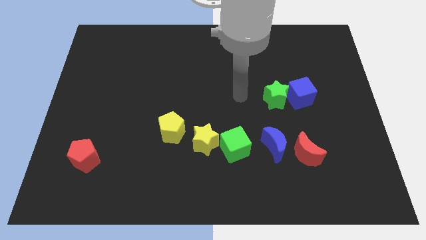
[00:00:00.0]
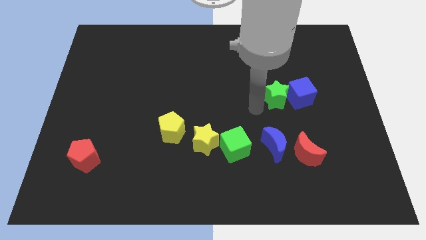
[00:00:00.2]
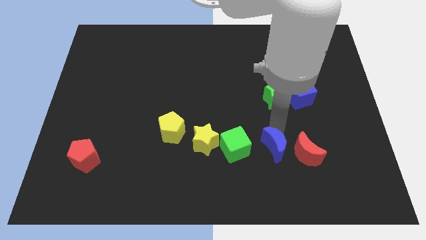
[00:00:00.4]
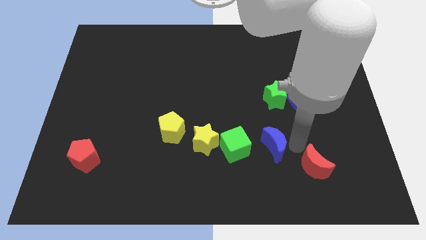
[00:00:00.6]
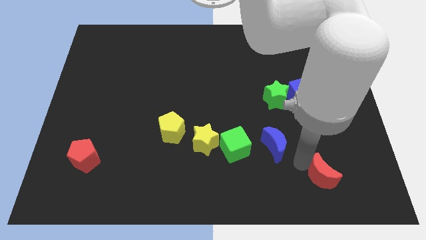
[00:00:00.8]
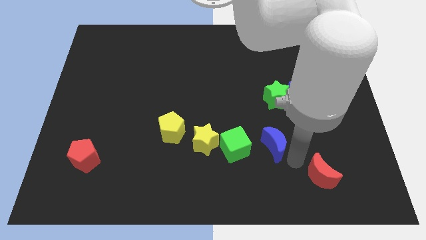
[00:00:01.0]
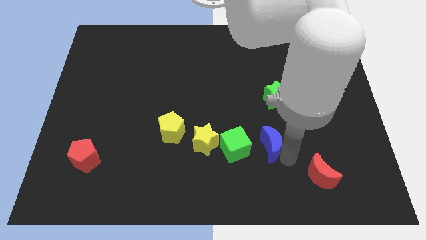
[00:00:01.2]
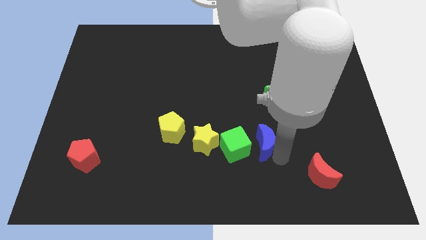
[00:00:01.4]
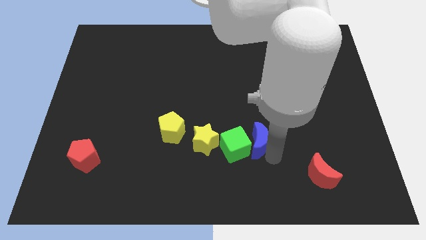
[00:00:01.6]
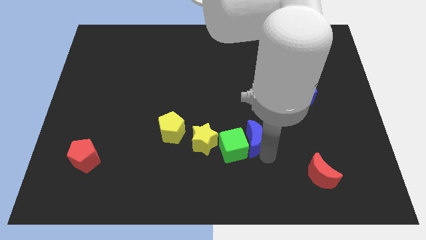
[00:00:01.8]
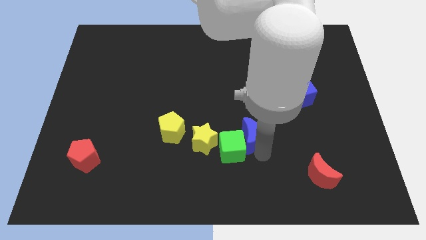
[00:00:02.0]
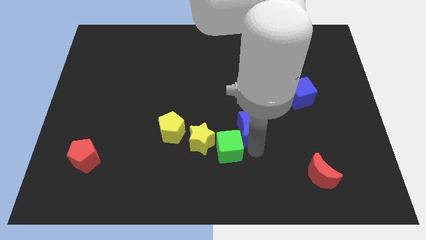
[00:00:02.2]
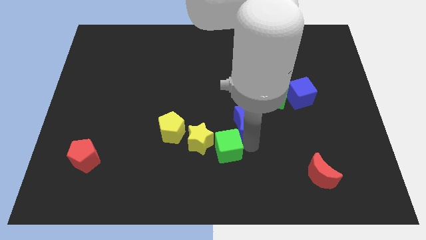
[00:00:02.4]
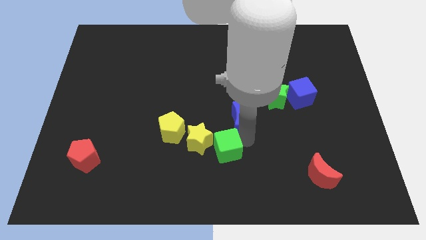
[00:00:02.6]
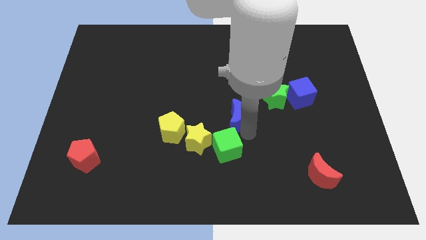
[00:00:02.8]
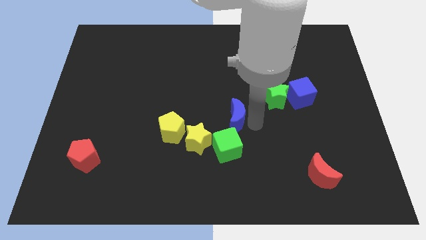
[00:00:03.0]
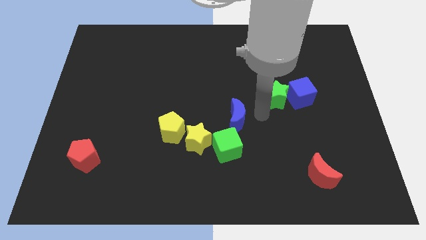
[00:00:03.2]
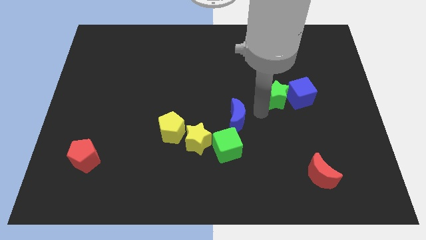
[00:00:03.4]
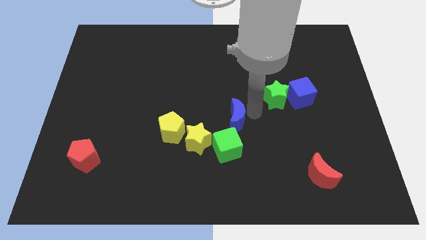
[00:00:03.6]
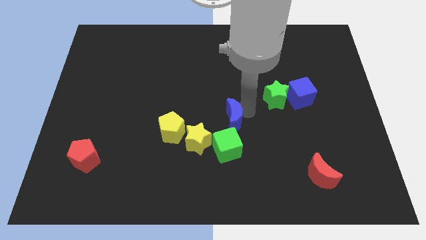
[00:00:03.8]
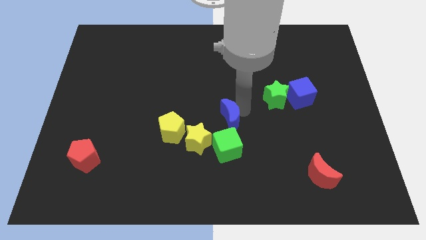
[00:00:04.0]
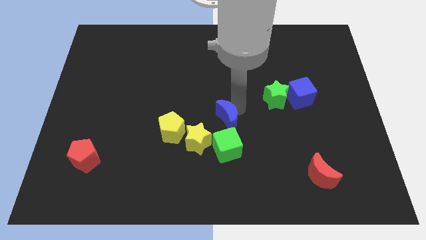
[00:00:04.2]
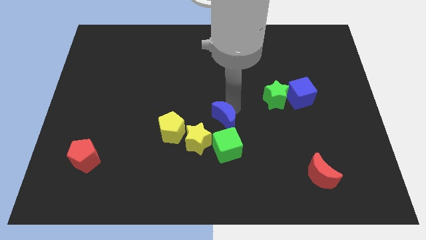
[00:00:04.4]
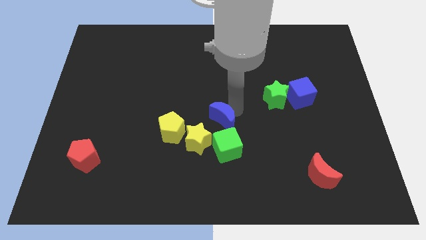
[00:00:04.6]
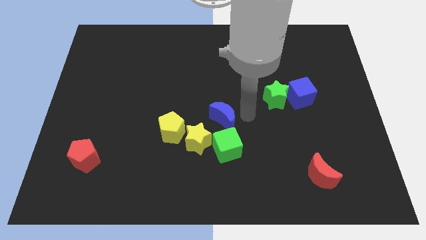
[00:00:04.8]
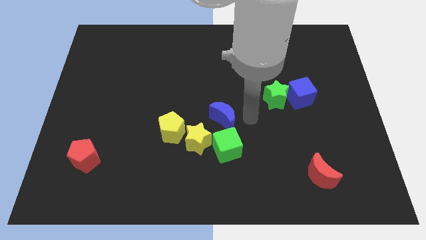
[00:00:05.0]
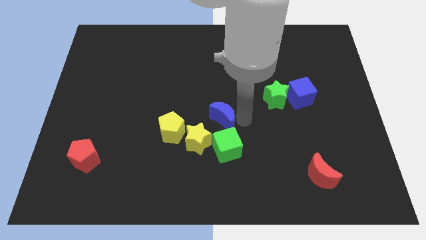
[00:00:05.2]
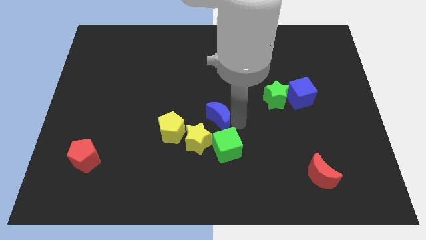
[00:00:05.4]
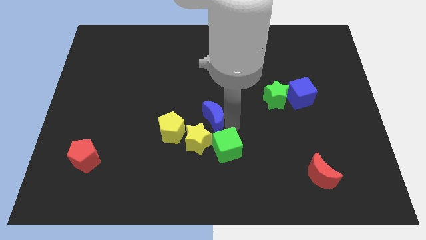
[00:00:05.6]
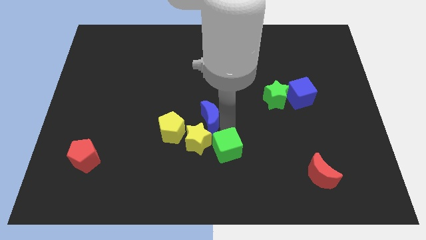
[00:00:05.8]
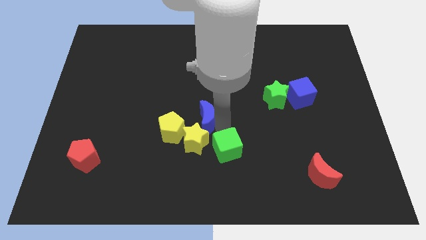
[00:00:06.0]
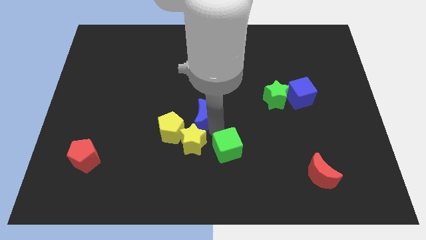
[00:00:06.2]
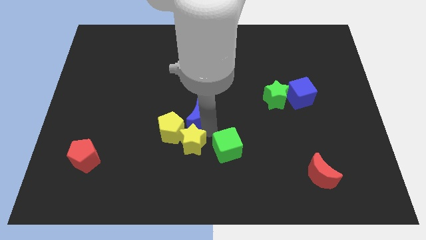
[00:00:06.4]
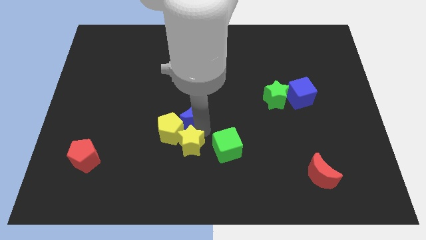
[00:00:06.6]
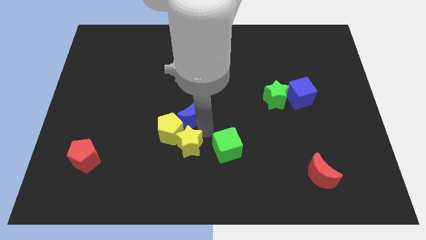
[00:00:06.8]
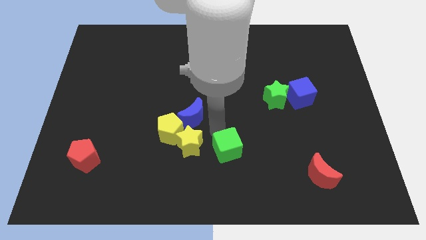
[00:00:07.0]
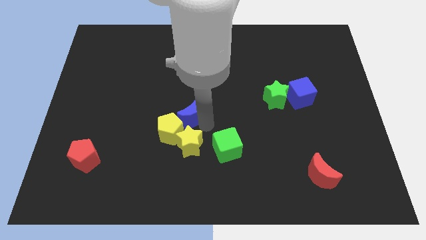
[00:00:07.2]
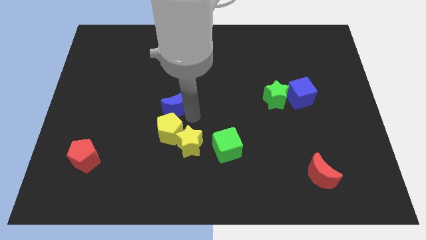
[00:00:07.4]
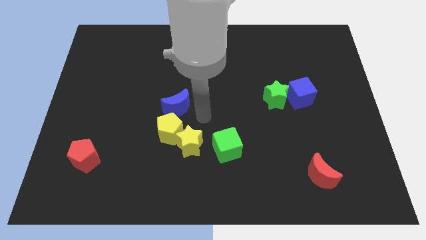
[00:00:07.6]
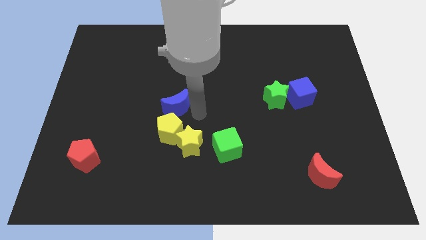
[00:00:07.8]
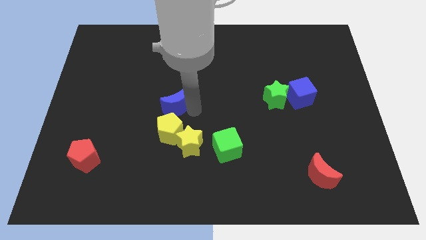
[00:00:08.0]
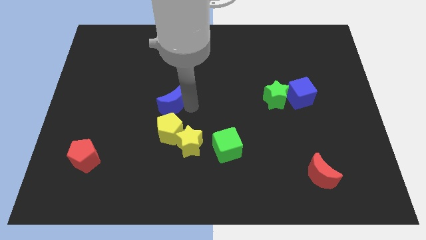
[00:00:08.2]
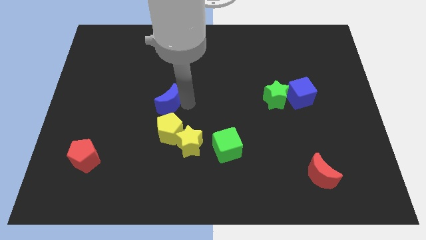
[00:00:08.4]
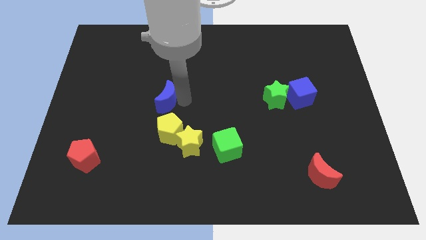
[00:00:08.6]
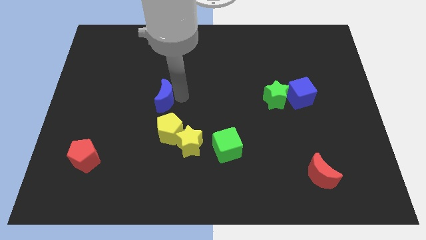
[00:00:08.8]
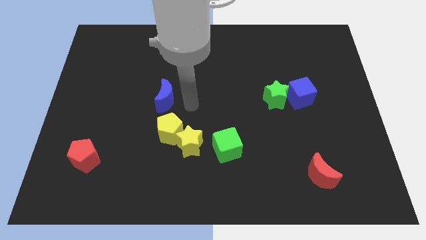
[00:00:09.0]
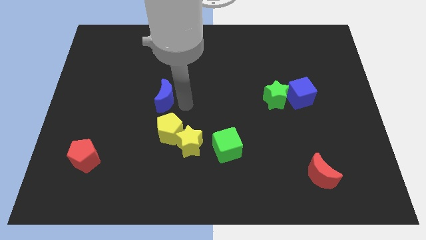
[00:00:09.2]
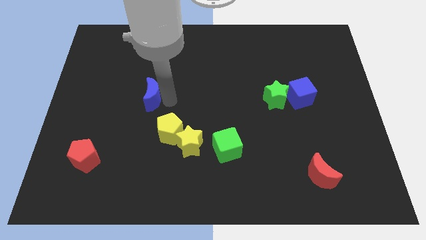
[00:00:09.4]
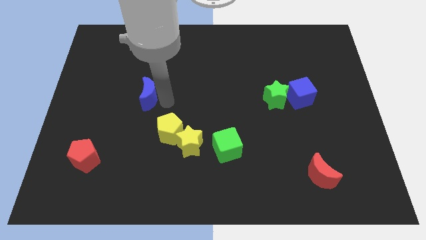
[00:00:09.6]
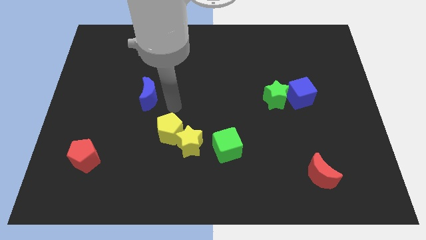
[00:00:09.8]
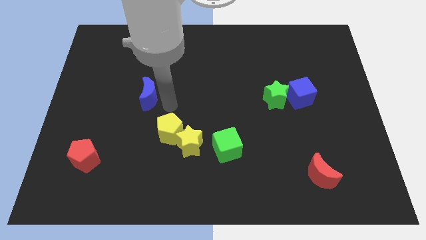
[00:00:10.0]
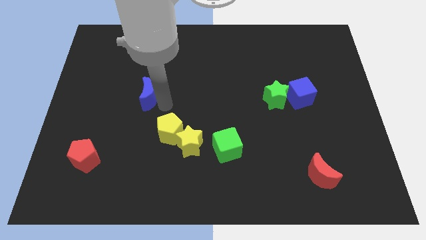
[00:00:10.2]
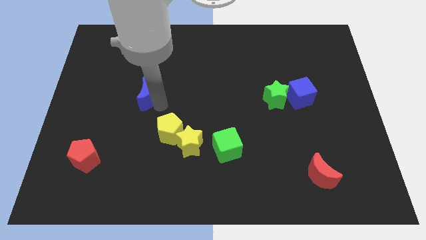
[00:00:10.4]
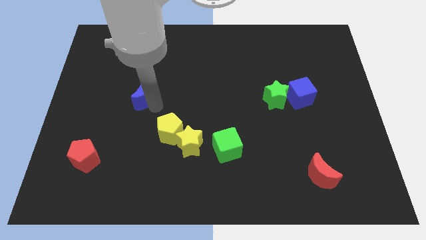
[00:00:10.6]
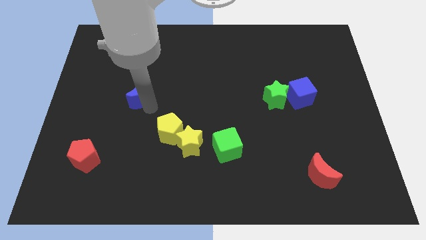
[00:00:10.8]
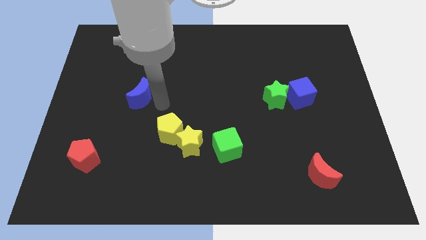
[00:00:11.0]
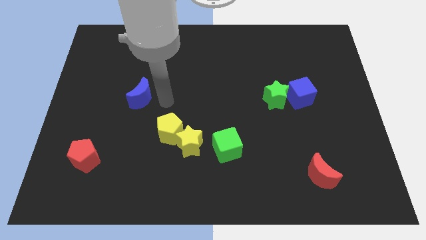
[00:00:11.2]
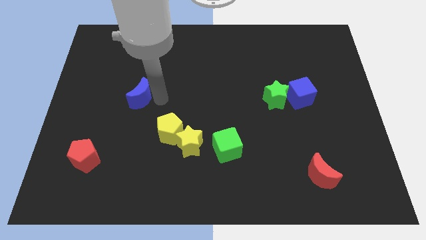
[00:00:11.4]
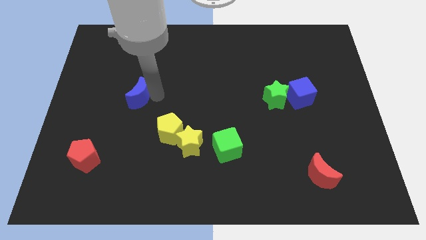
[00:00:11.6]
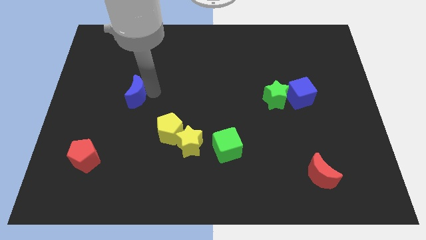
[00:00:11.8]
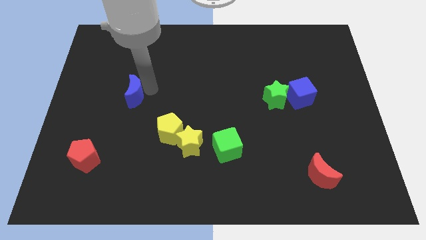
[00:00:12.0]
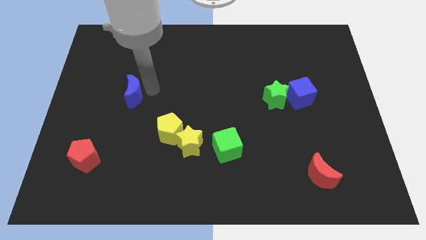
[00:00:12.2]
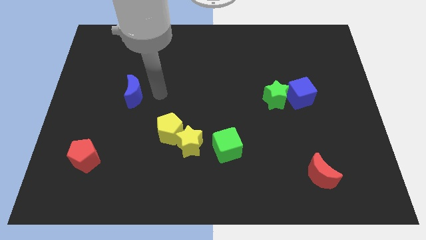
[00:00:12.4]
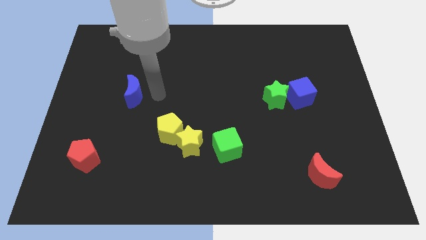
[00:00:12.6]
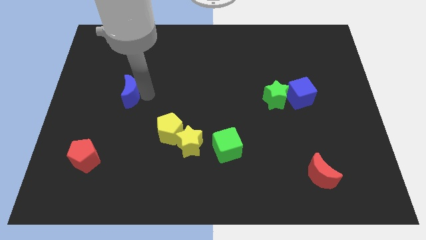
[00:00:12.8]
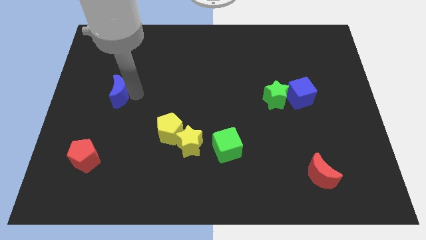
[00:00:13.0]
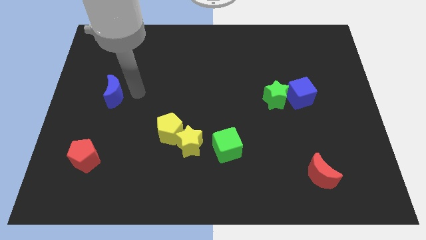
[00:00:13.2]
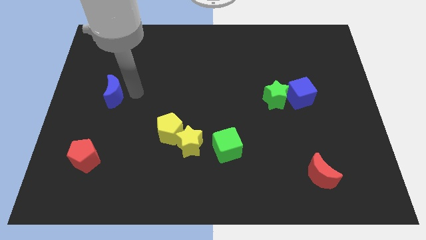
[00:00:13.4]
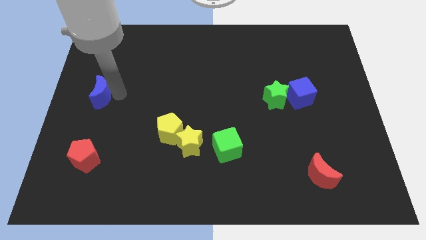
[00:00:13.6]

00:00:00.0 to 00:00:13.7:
push the blue moon to the left side of the board
